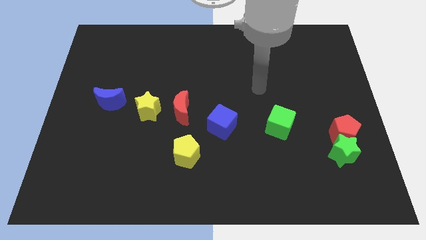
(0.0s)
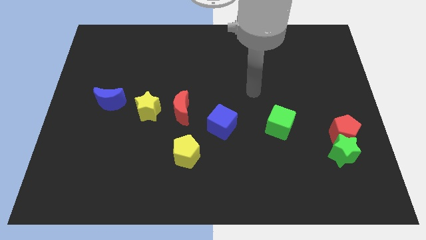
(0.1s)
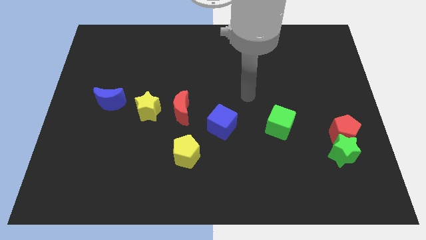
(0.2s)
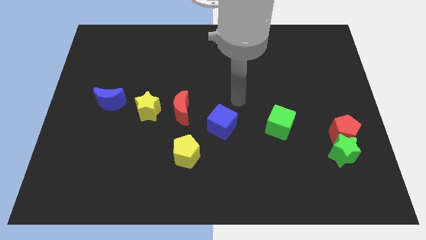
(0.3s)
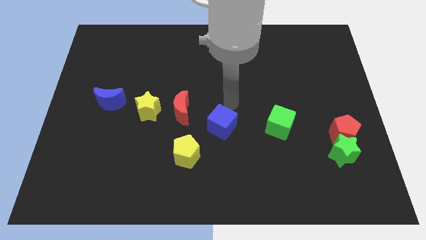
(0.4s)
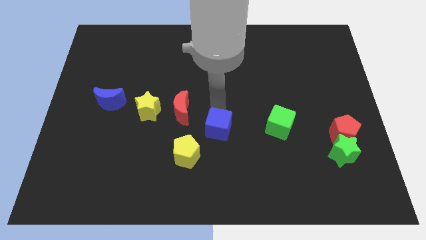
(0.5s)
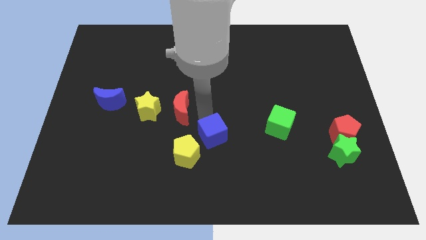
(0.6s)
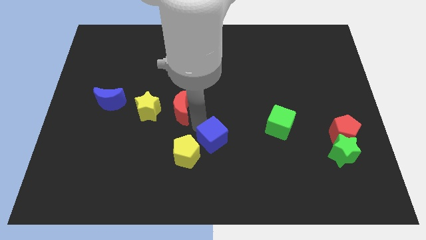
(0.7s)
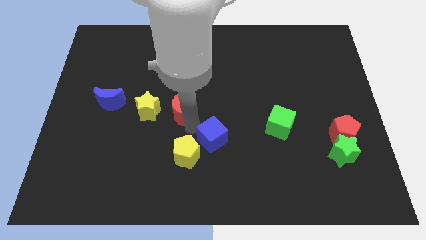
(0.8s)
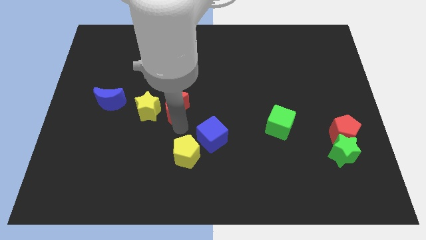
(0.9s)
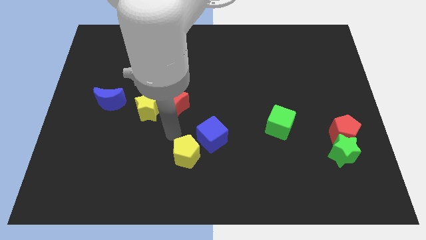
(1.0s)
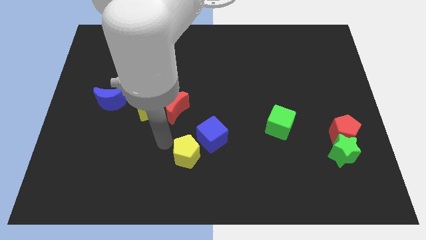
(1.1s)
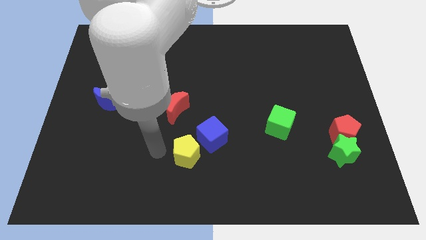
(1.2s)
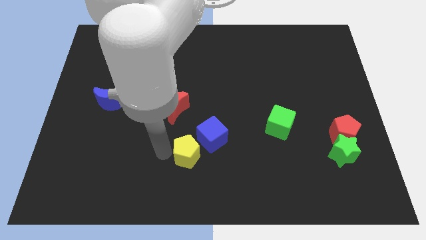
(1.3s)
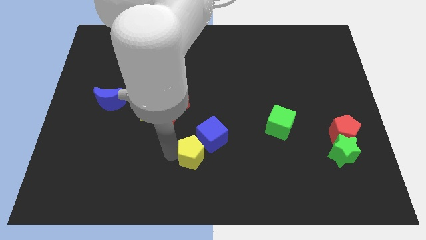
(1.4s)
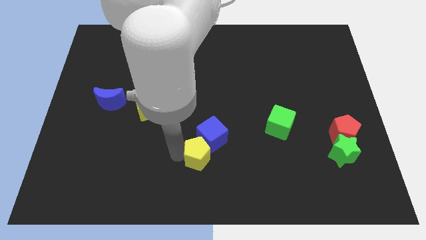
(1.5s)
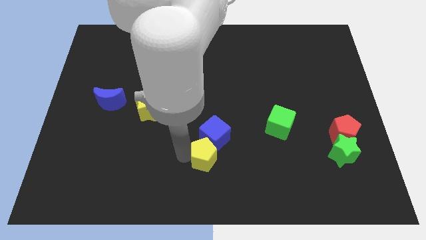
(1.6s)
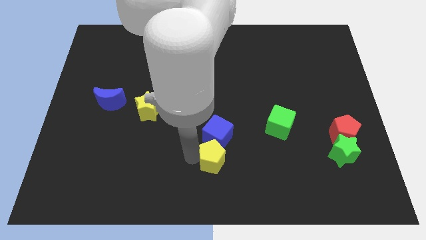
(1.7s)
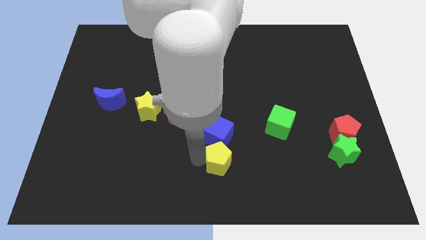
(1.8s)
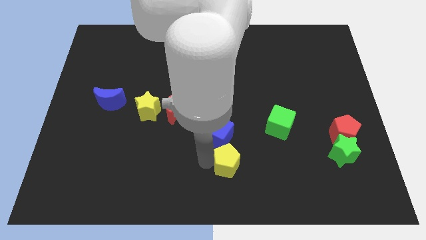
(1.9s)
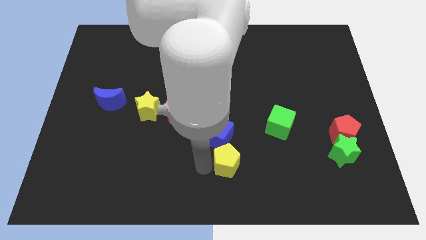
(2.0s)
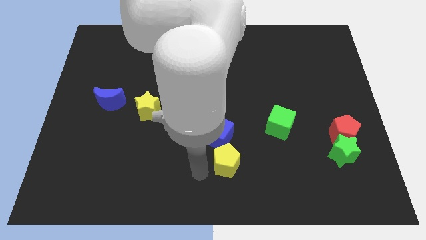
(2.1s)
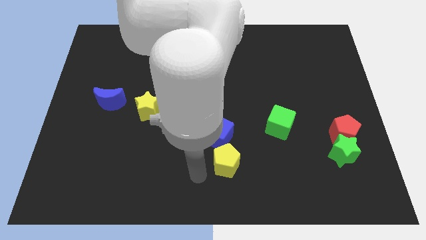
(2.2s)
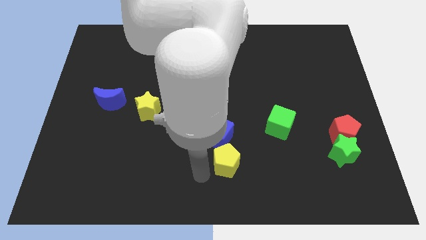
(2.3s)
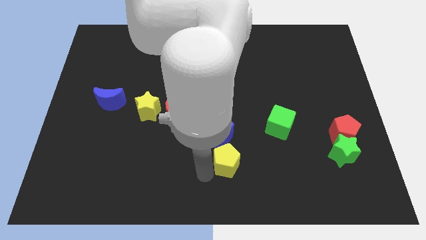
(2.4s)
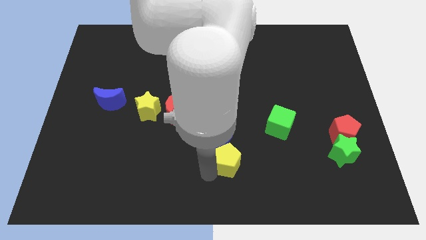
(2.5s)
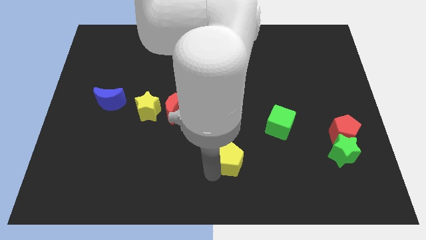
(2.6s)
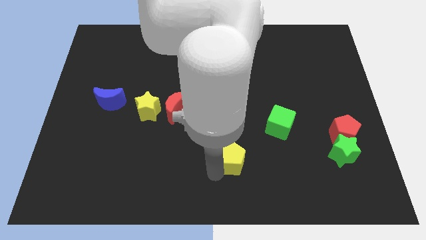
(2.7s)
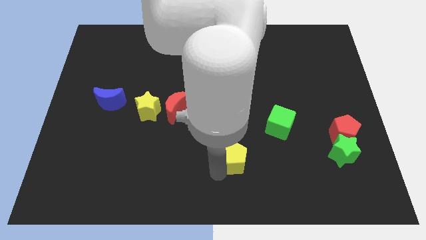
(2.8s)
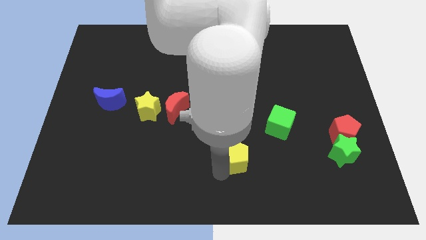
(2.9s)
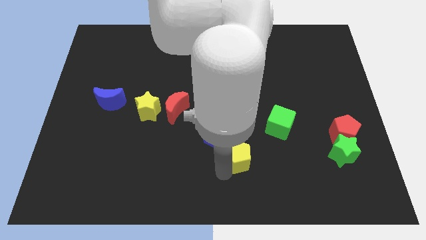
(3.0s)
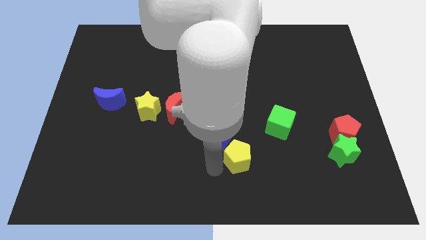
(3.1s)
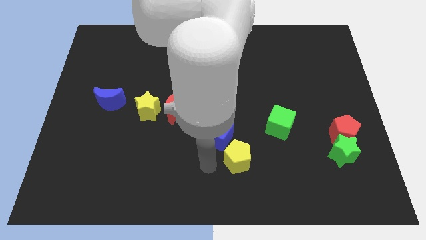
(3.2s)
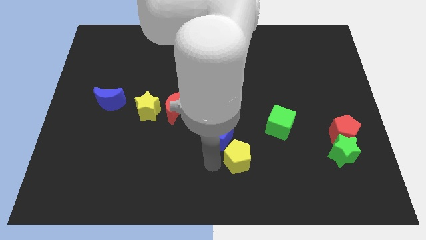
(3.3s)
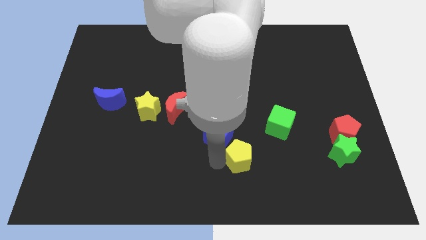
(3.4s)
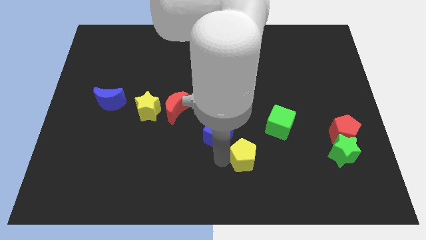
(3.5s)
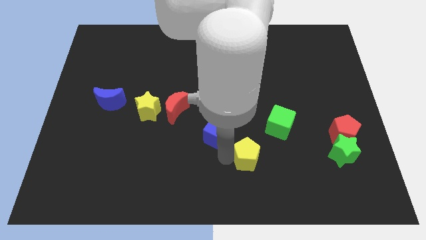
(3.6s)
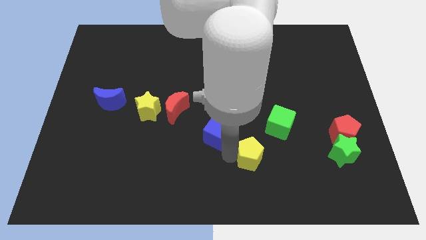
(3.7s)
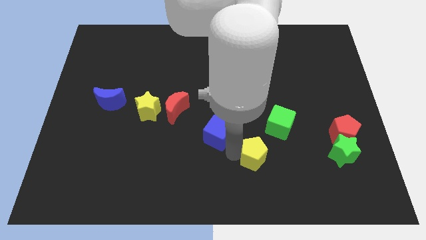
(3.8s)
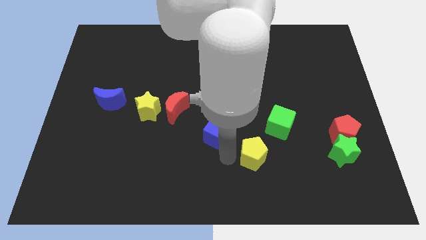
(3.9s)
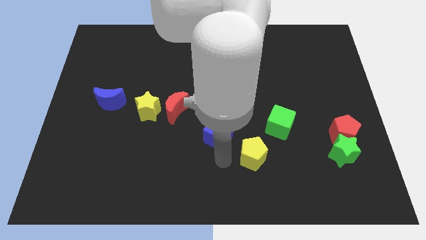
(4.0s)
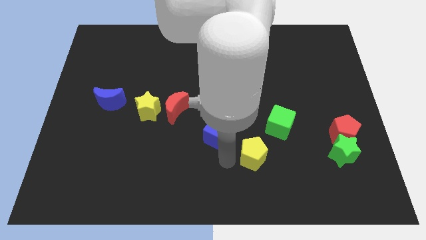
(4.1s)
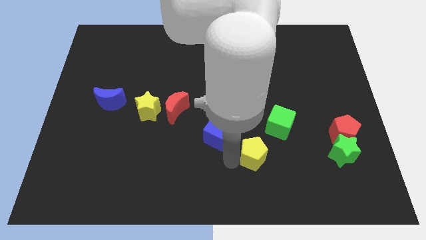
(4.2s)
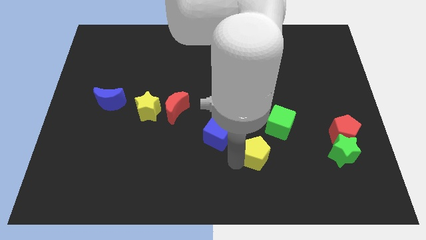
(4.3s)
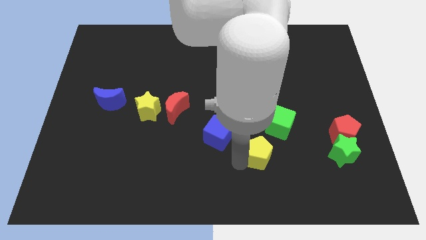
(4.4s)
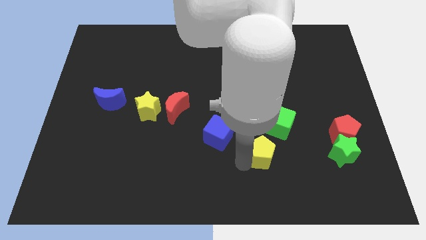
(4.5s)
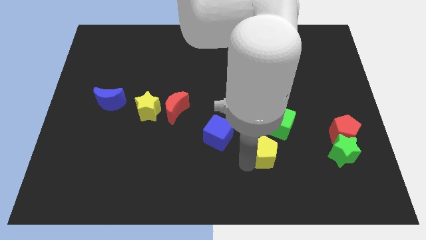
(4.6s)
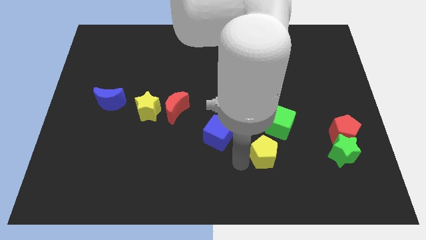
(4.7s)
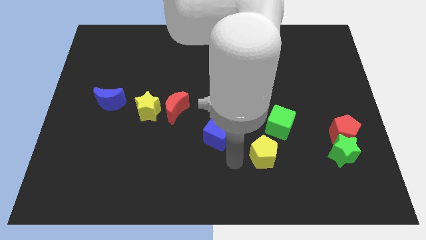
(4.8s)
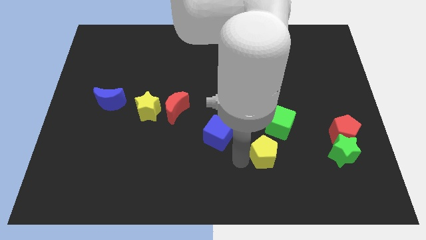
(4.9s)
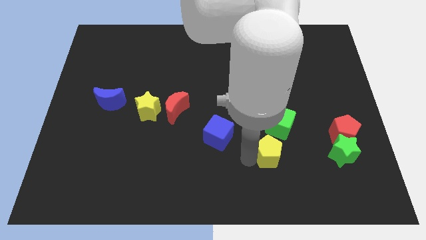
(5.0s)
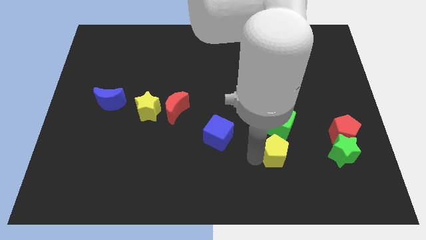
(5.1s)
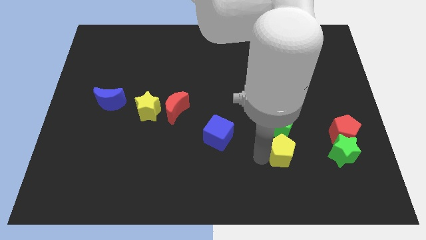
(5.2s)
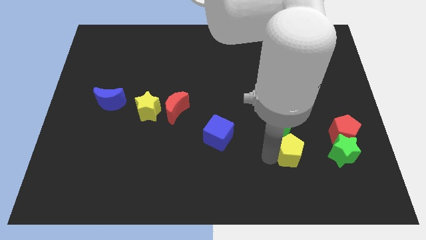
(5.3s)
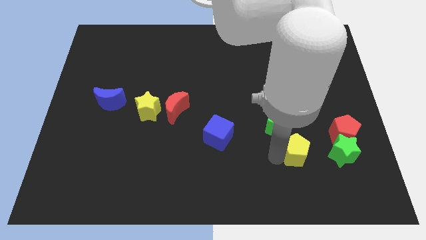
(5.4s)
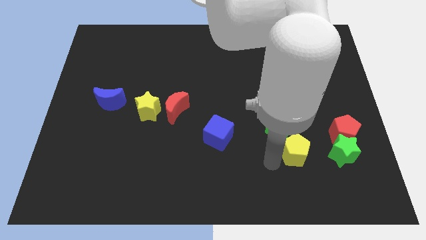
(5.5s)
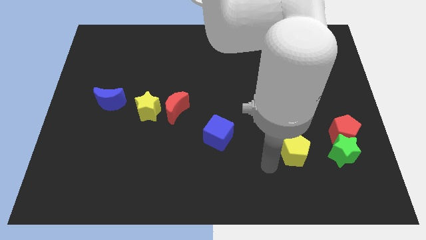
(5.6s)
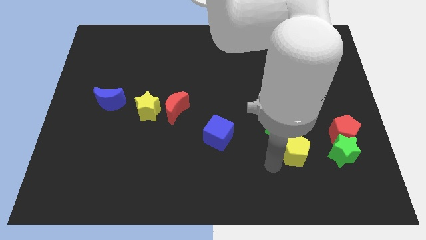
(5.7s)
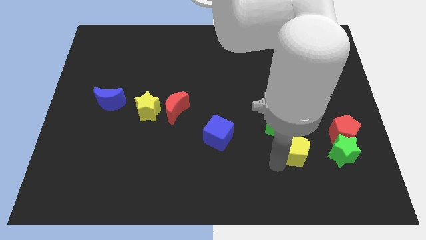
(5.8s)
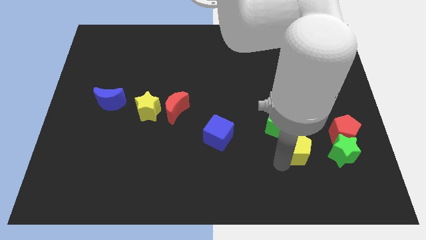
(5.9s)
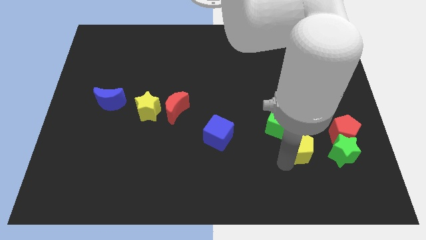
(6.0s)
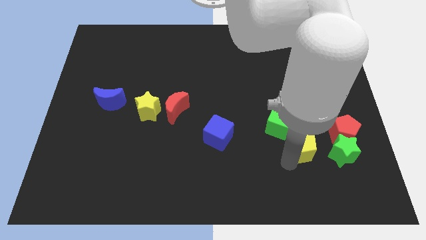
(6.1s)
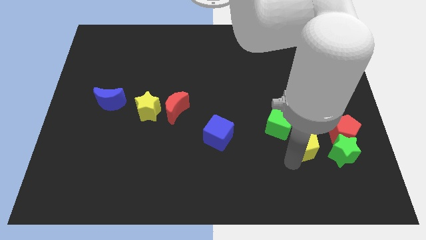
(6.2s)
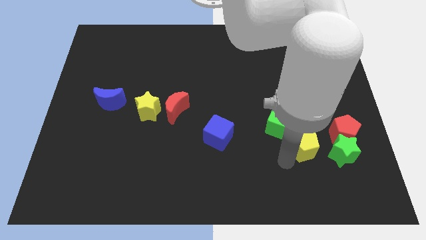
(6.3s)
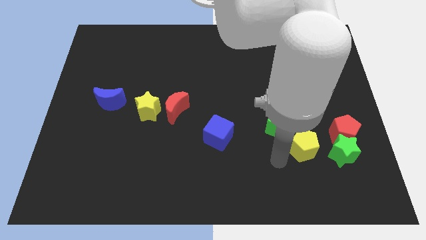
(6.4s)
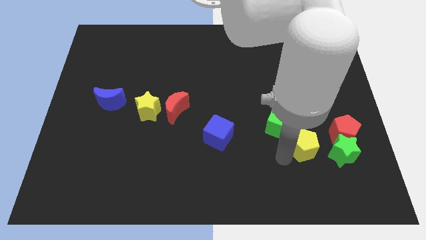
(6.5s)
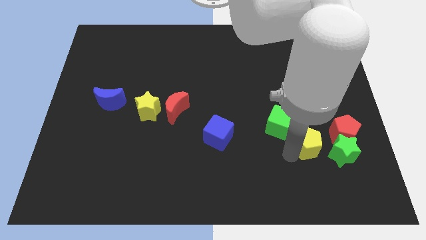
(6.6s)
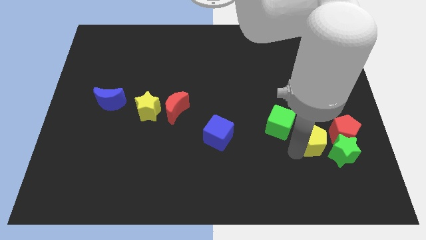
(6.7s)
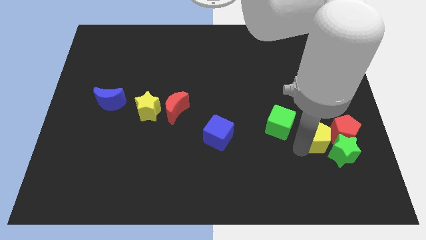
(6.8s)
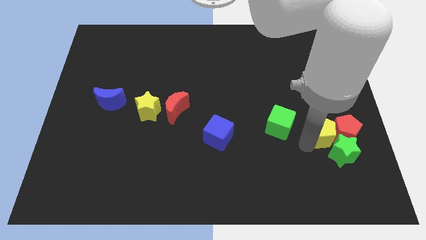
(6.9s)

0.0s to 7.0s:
move the yellow pentagon to the red pentagon

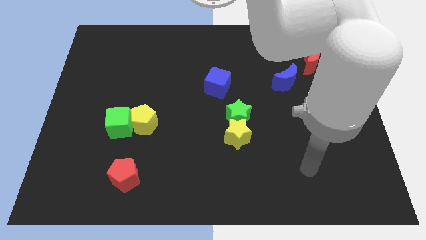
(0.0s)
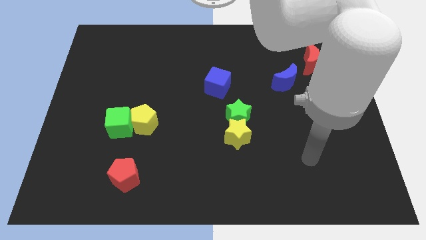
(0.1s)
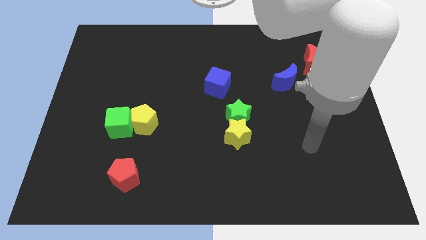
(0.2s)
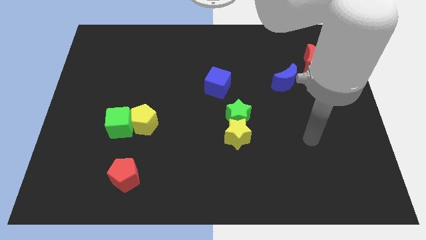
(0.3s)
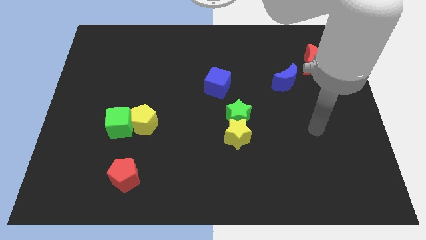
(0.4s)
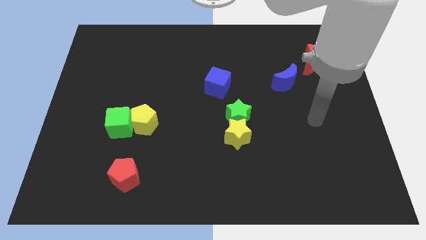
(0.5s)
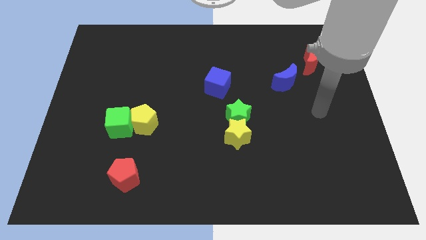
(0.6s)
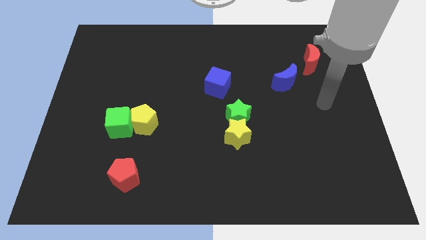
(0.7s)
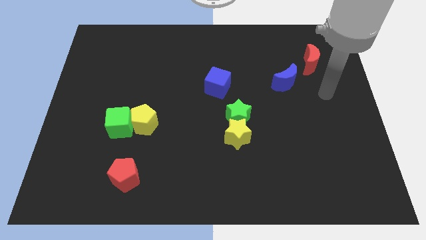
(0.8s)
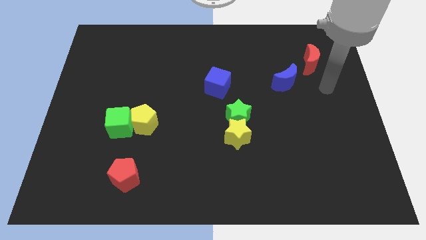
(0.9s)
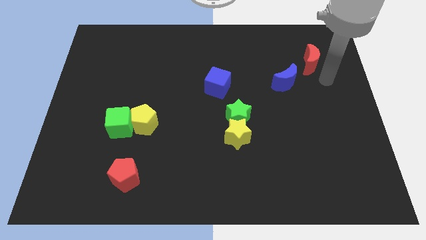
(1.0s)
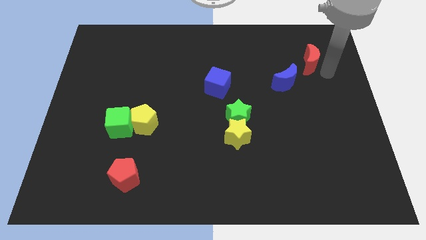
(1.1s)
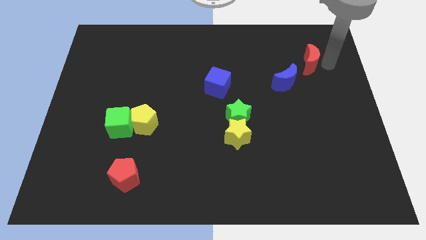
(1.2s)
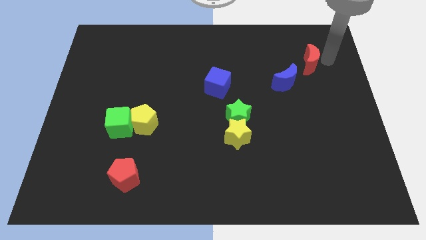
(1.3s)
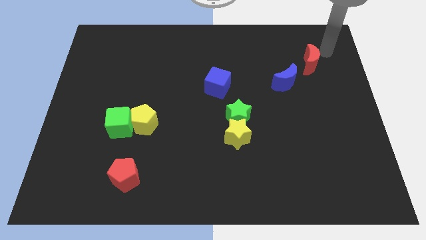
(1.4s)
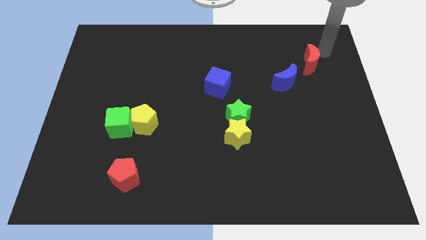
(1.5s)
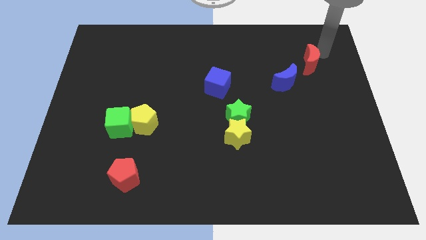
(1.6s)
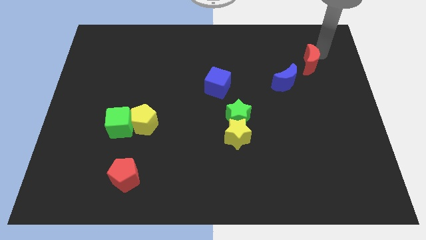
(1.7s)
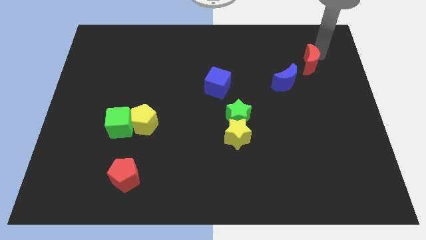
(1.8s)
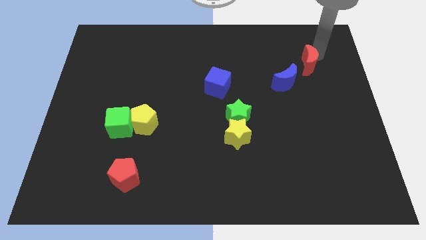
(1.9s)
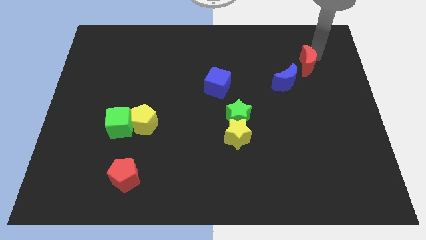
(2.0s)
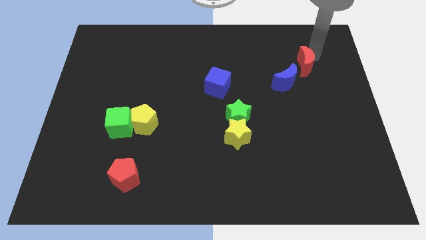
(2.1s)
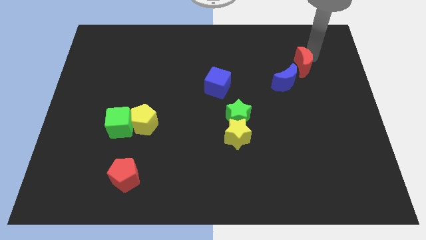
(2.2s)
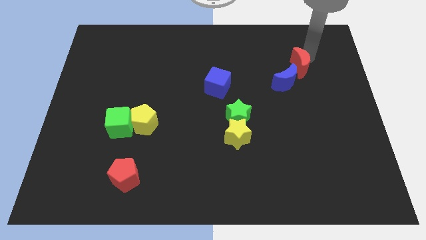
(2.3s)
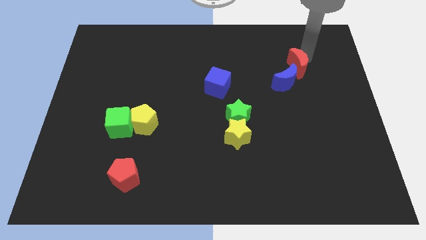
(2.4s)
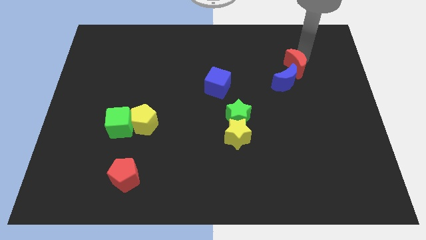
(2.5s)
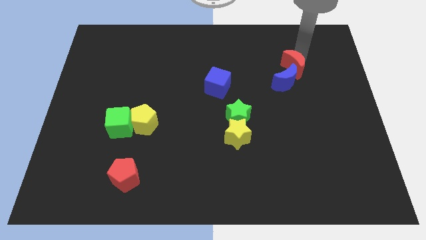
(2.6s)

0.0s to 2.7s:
move the red moon next to the blue moon
